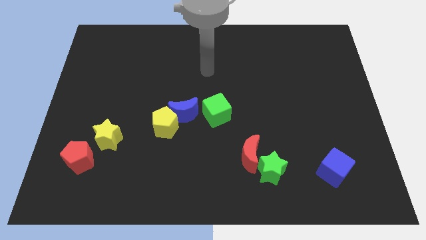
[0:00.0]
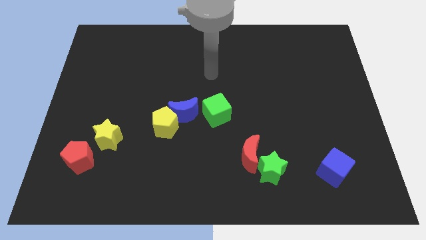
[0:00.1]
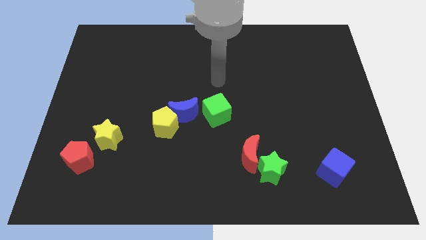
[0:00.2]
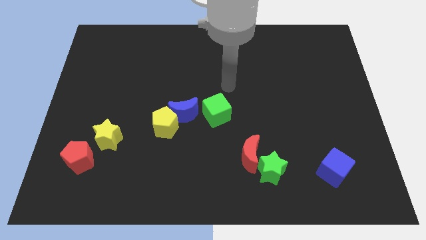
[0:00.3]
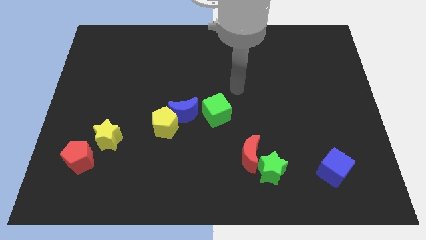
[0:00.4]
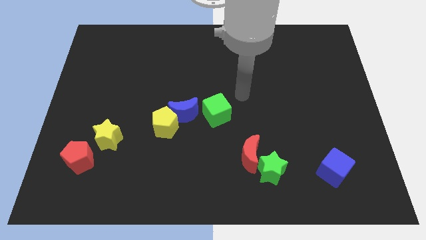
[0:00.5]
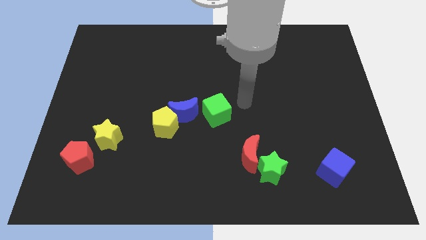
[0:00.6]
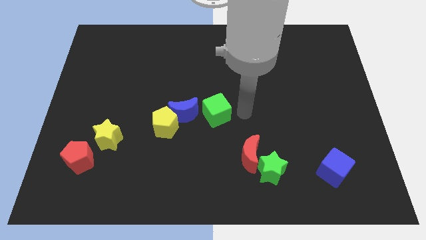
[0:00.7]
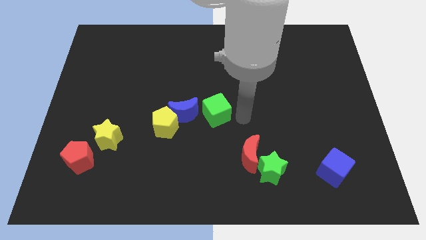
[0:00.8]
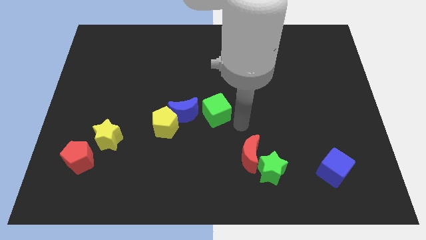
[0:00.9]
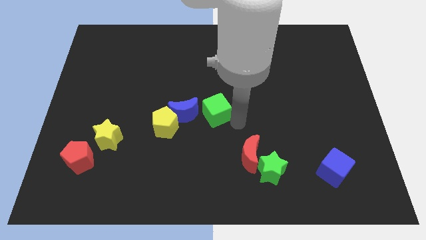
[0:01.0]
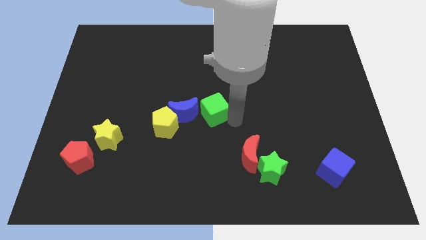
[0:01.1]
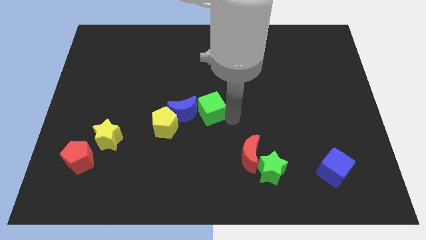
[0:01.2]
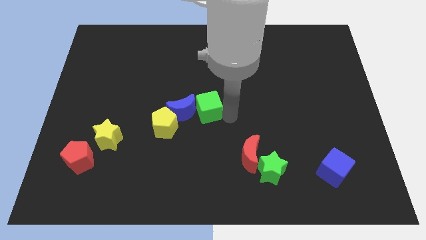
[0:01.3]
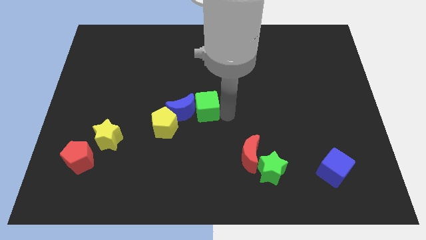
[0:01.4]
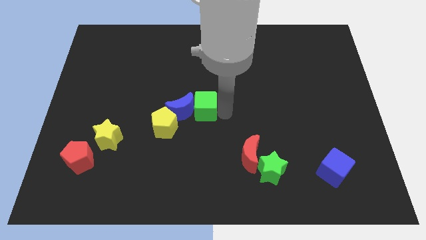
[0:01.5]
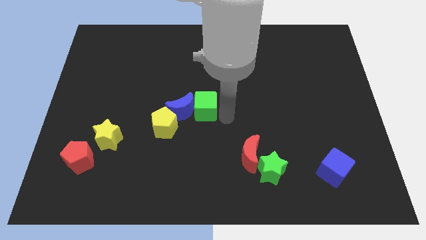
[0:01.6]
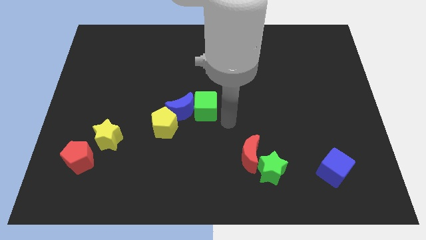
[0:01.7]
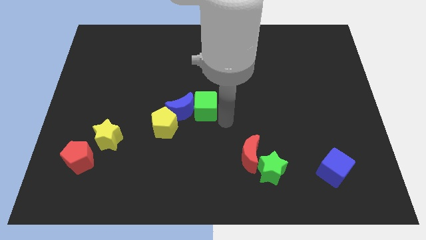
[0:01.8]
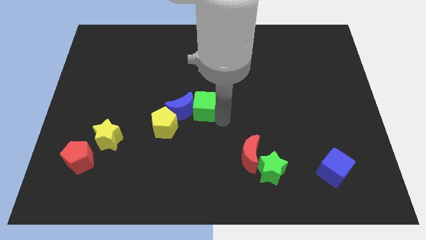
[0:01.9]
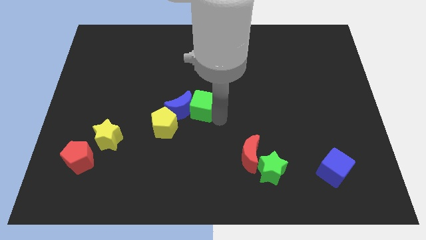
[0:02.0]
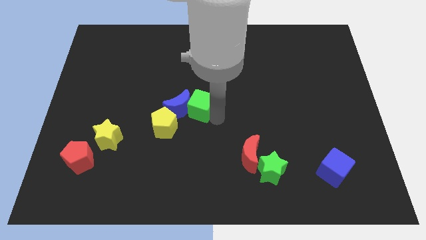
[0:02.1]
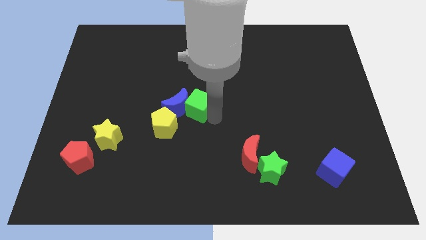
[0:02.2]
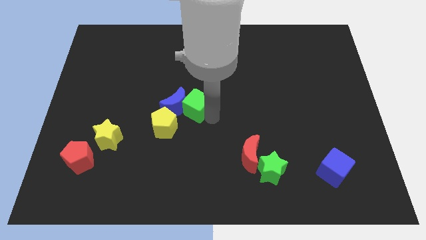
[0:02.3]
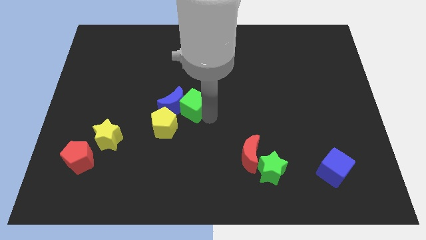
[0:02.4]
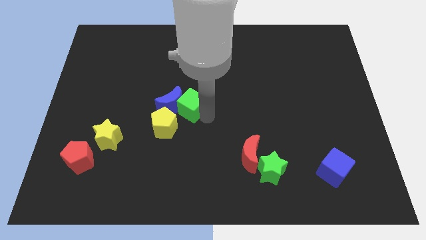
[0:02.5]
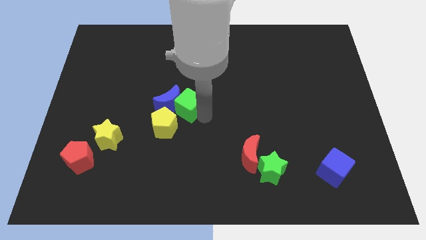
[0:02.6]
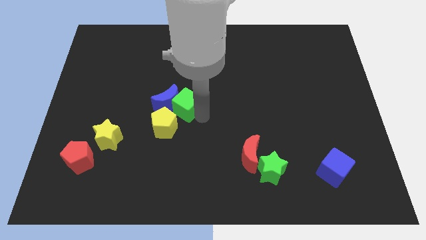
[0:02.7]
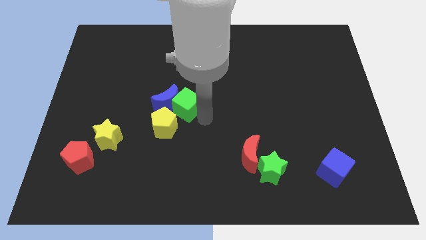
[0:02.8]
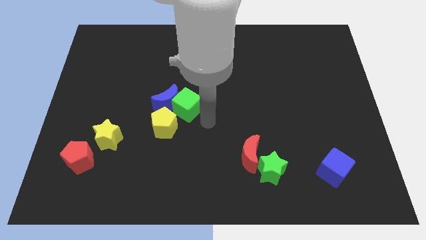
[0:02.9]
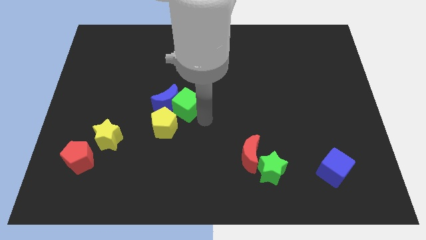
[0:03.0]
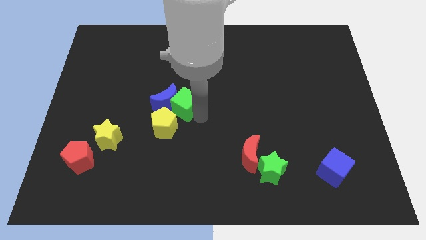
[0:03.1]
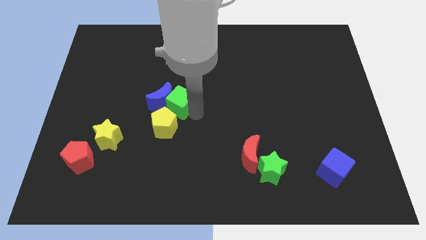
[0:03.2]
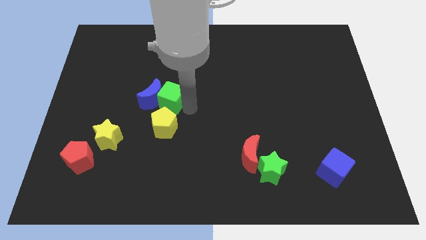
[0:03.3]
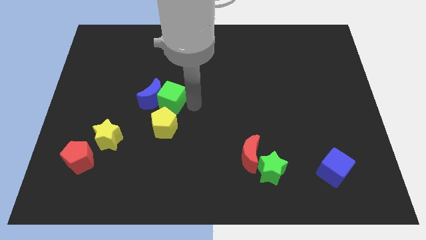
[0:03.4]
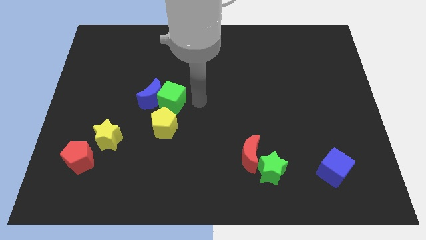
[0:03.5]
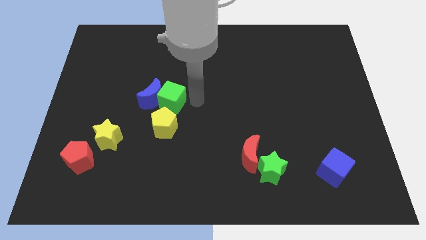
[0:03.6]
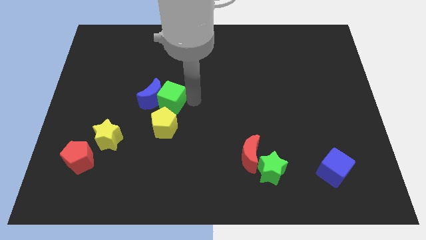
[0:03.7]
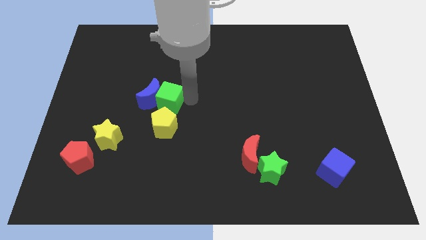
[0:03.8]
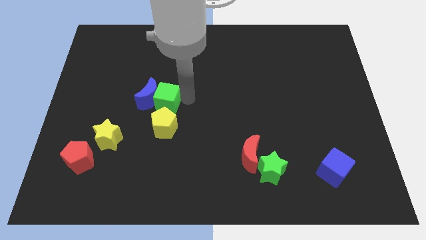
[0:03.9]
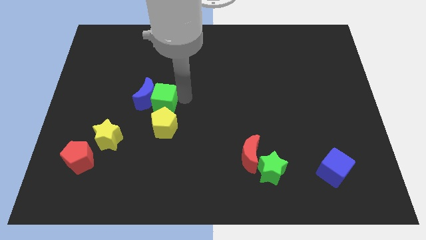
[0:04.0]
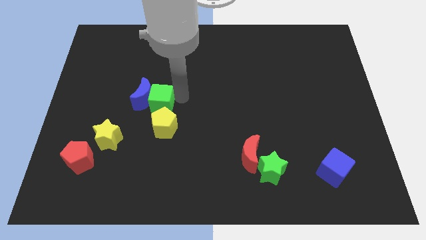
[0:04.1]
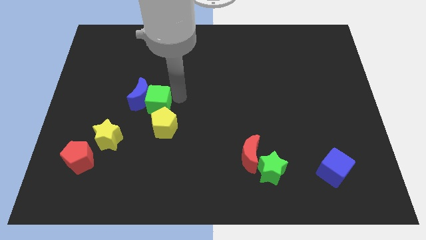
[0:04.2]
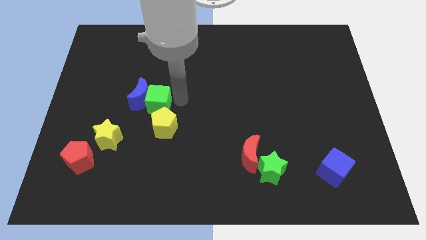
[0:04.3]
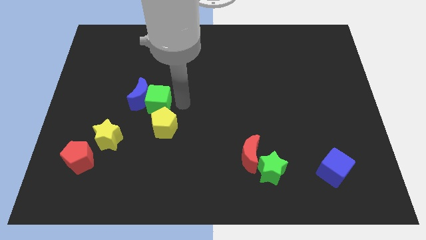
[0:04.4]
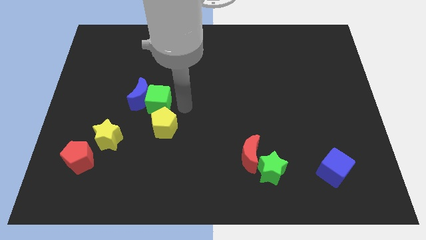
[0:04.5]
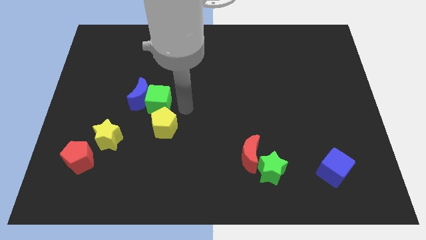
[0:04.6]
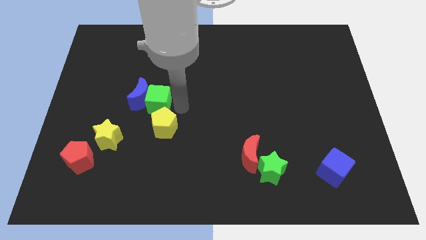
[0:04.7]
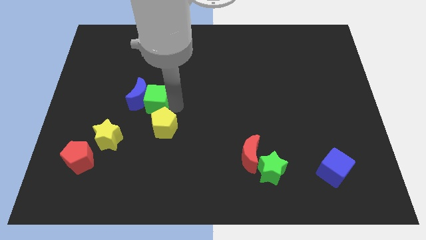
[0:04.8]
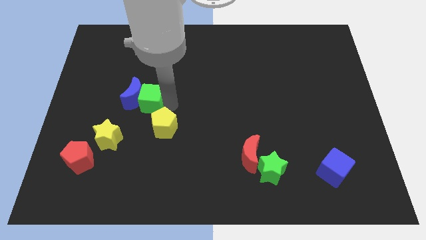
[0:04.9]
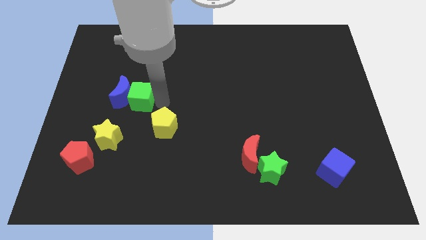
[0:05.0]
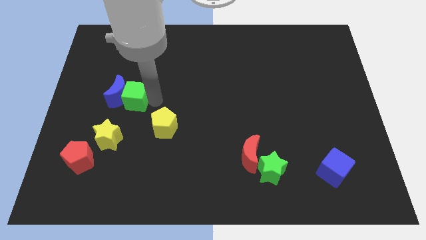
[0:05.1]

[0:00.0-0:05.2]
move the green cube to the top side of the yellow star

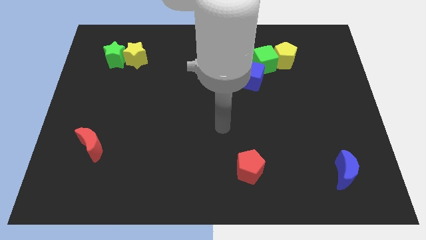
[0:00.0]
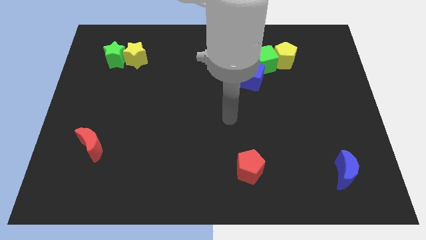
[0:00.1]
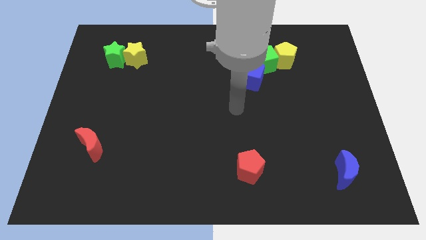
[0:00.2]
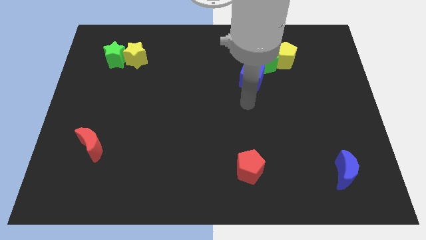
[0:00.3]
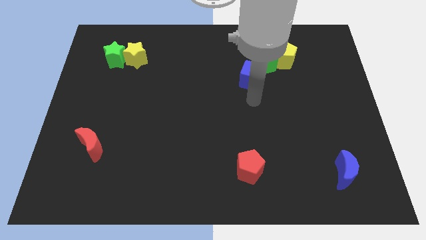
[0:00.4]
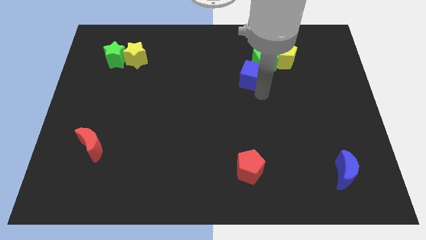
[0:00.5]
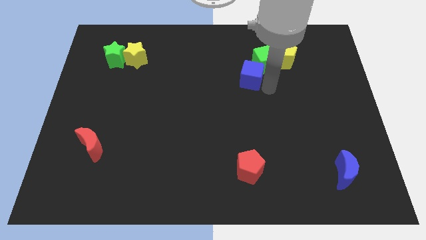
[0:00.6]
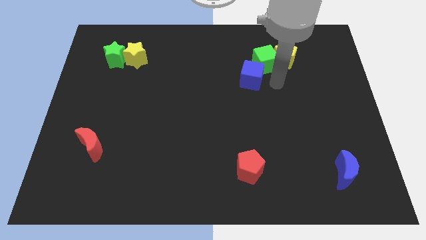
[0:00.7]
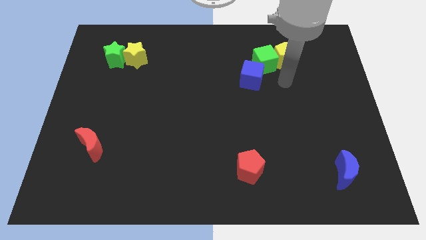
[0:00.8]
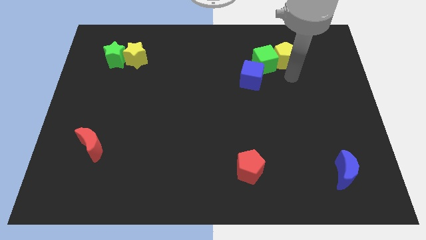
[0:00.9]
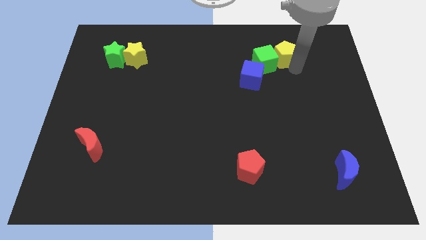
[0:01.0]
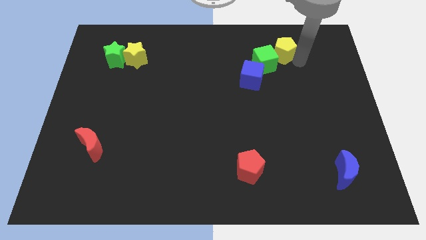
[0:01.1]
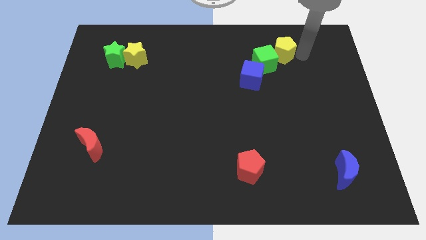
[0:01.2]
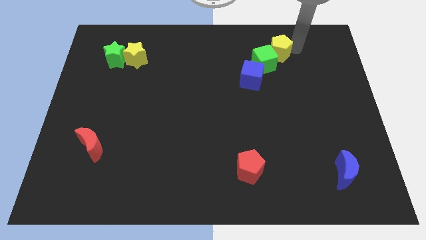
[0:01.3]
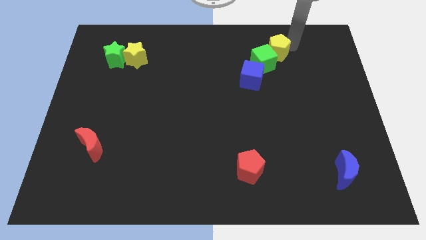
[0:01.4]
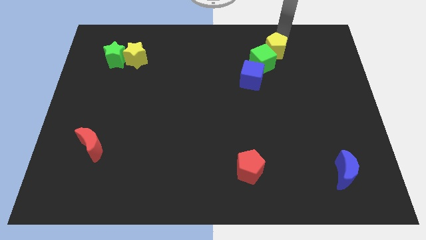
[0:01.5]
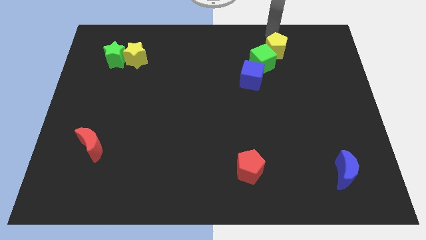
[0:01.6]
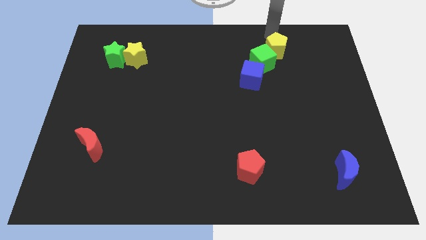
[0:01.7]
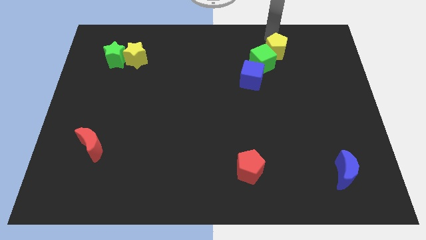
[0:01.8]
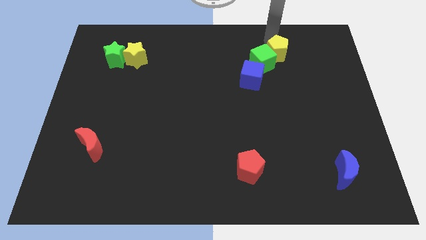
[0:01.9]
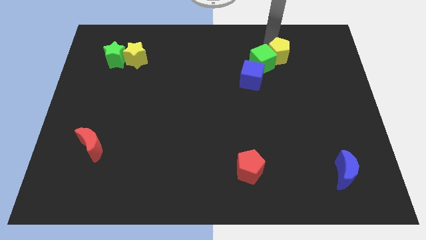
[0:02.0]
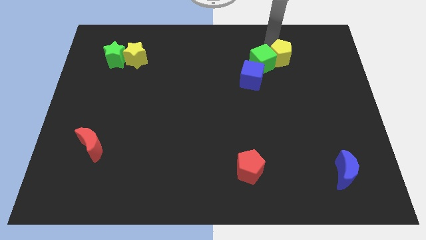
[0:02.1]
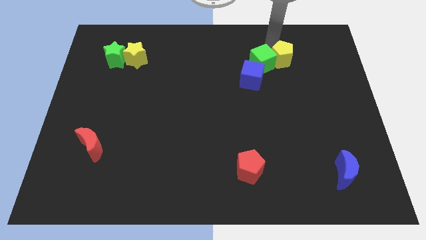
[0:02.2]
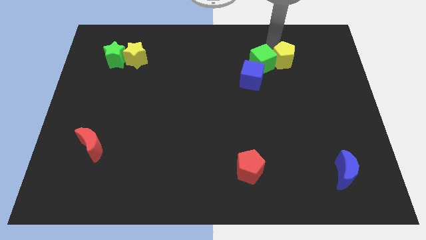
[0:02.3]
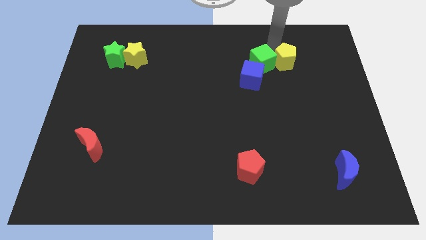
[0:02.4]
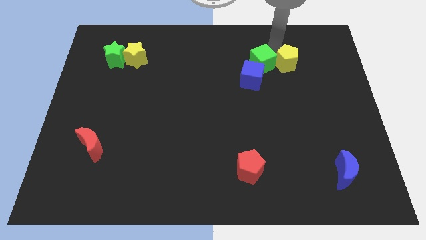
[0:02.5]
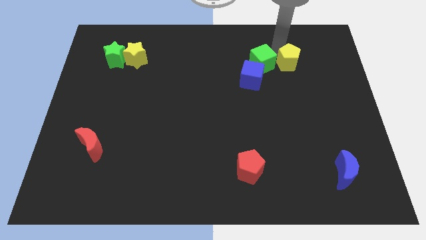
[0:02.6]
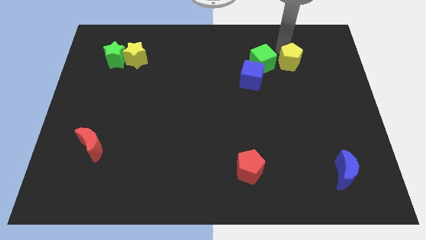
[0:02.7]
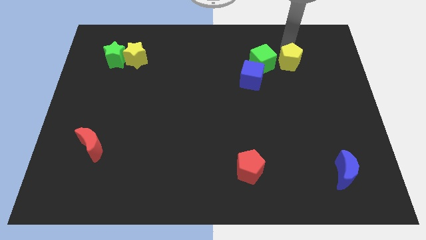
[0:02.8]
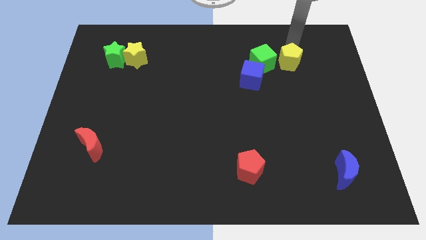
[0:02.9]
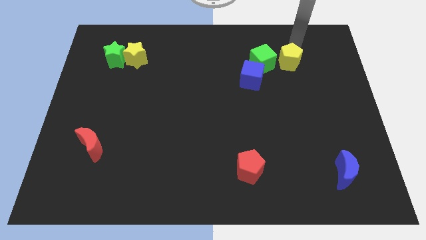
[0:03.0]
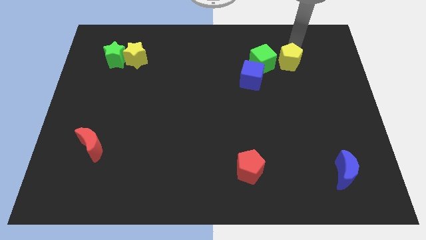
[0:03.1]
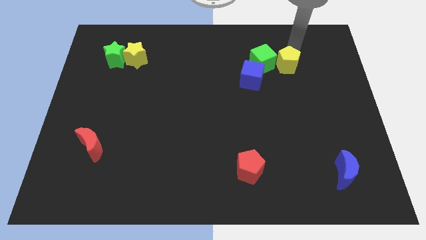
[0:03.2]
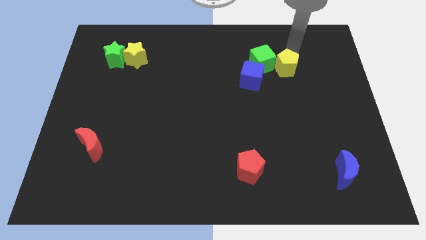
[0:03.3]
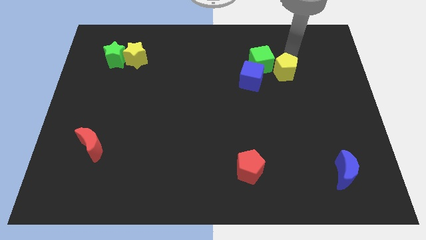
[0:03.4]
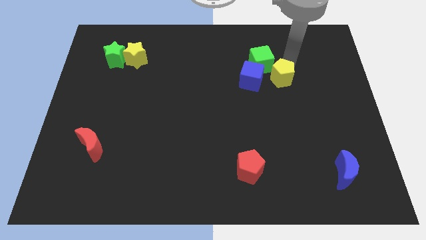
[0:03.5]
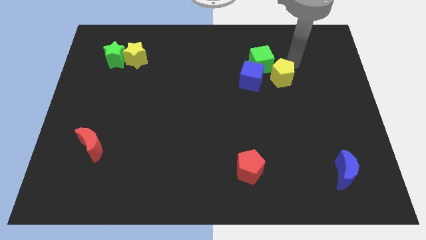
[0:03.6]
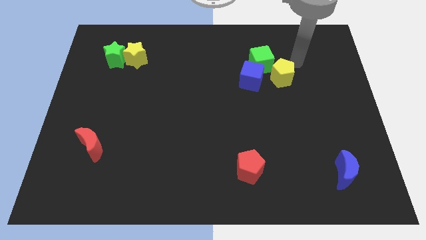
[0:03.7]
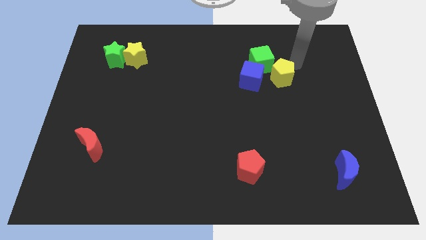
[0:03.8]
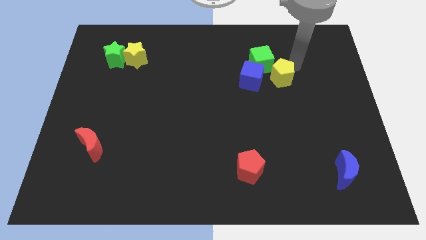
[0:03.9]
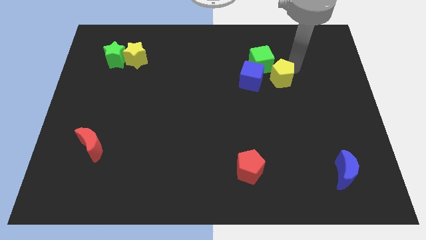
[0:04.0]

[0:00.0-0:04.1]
move the yellow pentagon to the bottom side of the green cube
